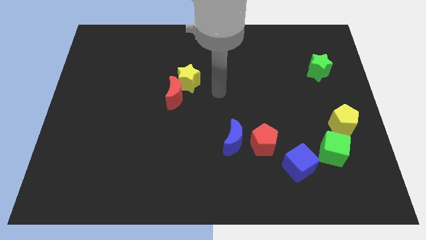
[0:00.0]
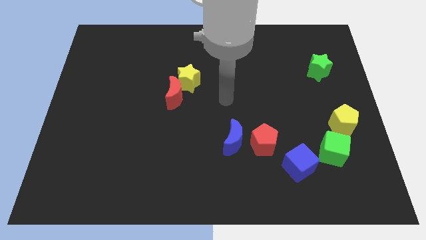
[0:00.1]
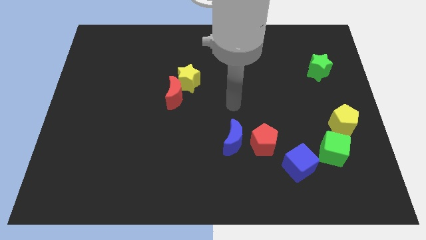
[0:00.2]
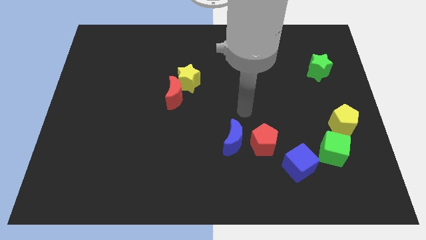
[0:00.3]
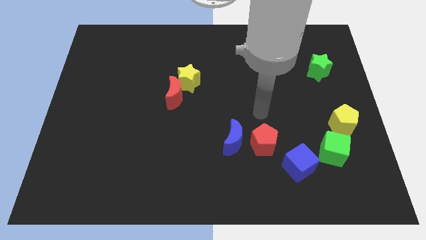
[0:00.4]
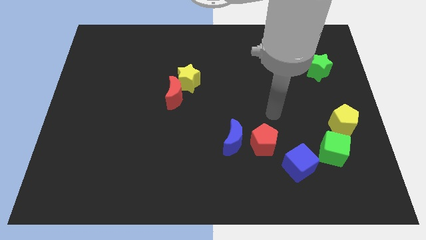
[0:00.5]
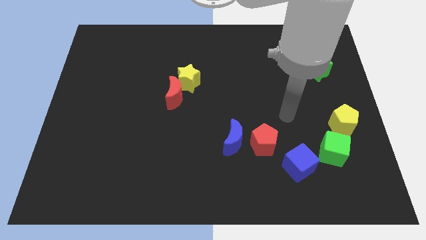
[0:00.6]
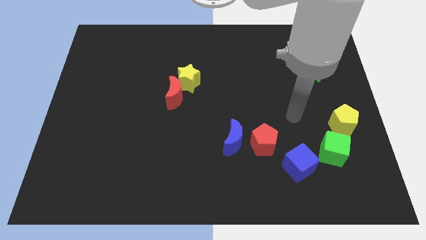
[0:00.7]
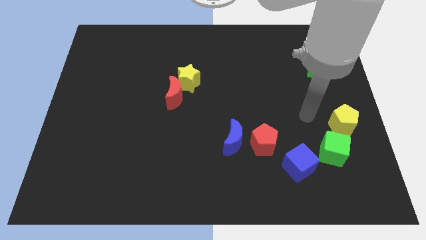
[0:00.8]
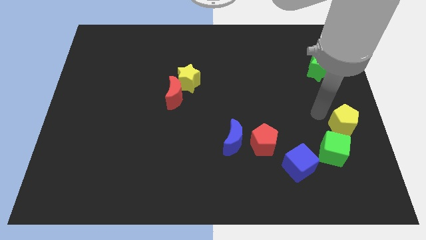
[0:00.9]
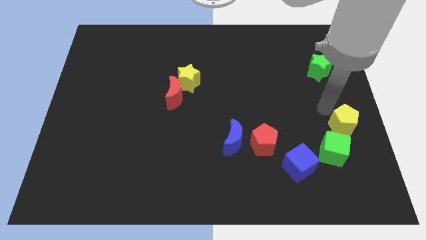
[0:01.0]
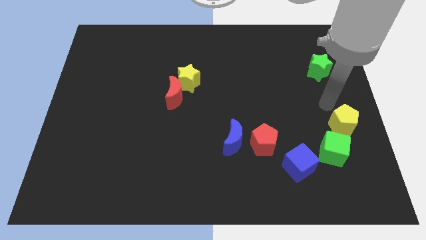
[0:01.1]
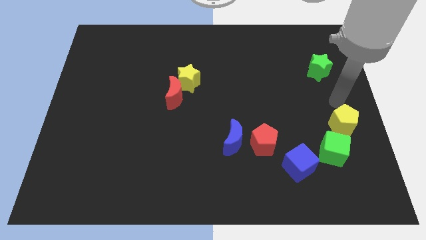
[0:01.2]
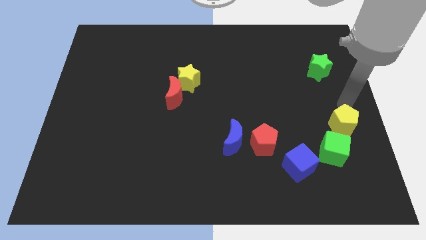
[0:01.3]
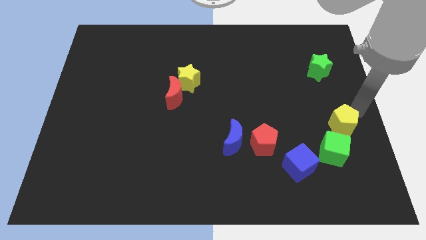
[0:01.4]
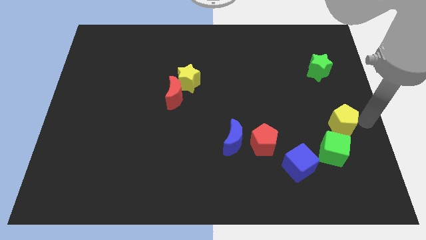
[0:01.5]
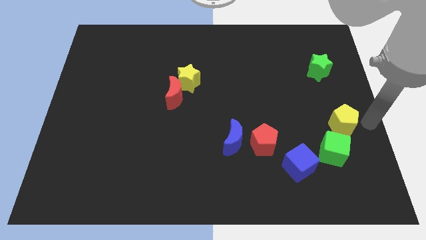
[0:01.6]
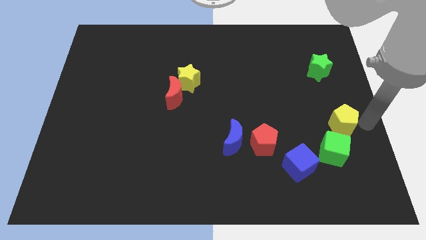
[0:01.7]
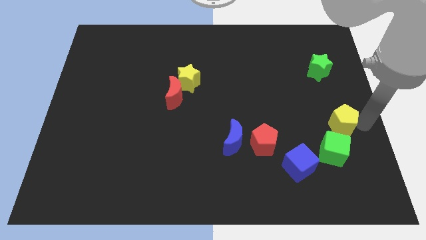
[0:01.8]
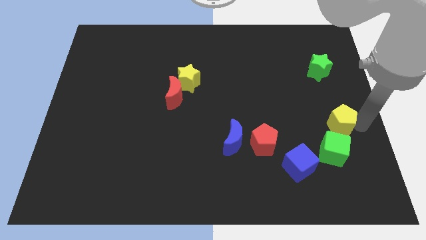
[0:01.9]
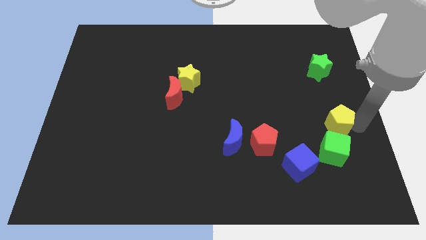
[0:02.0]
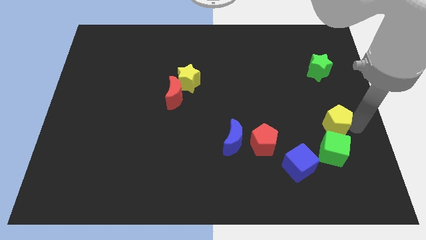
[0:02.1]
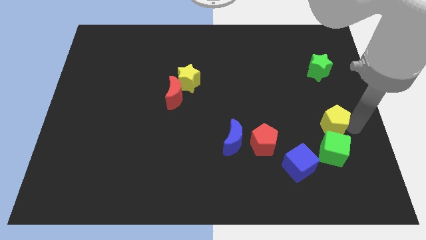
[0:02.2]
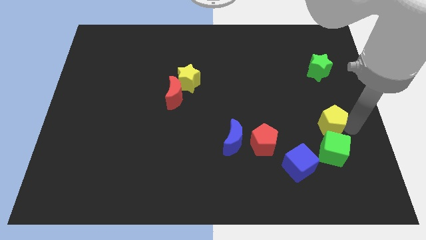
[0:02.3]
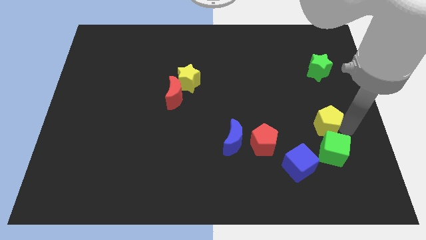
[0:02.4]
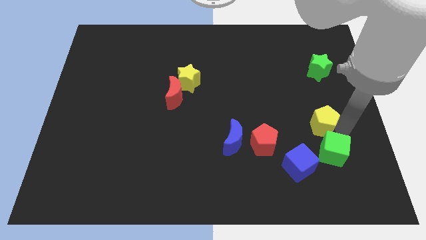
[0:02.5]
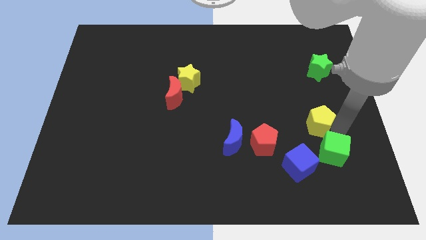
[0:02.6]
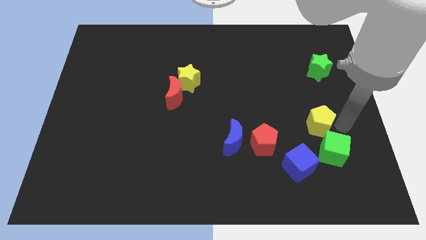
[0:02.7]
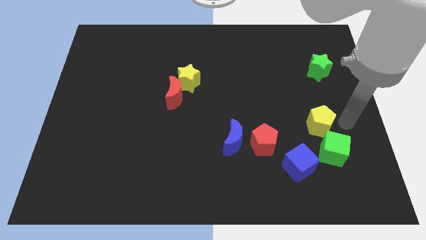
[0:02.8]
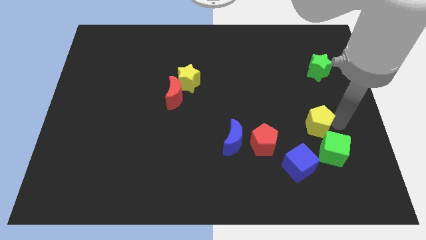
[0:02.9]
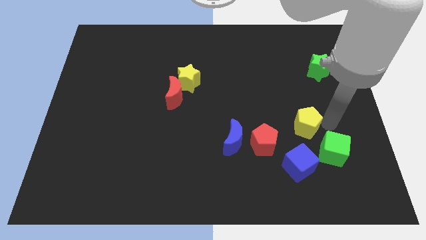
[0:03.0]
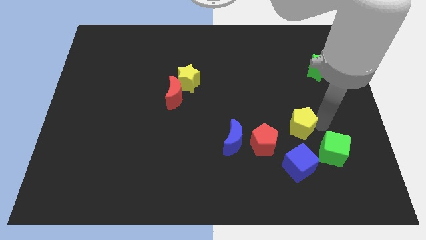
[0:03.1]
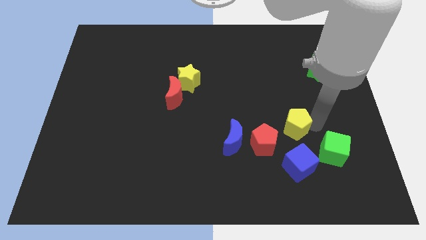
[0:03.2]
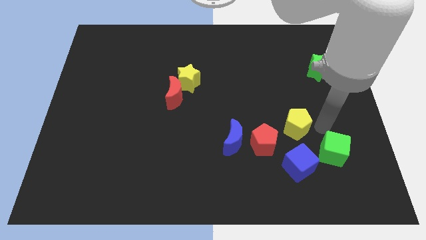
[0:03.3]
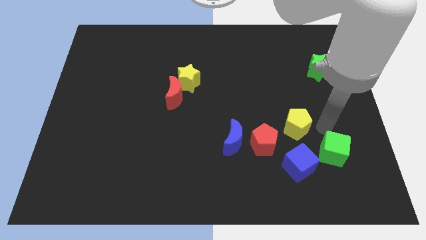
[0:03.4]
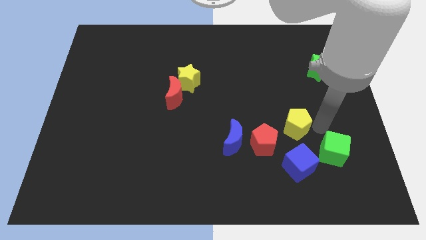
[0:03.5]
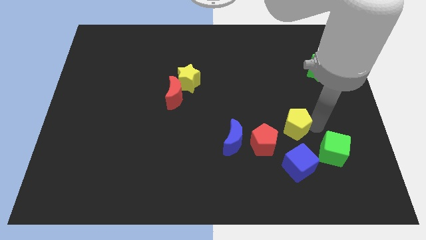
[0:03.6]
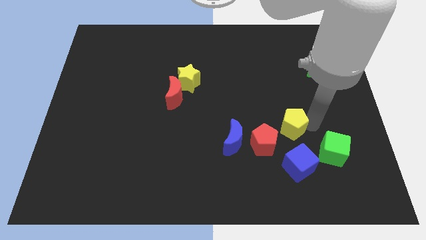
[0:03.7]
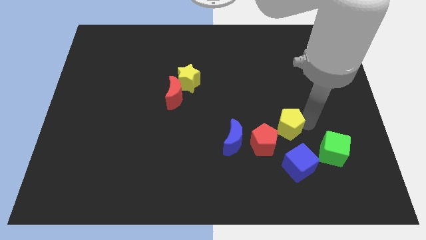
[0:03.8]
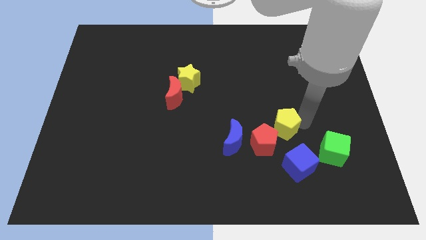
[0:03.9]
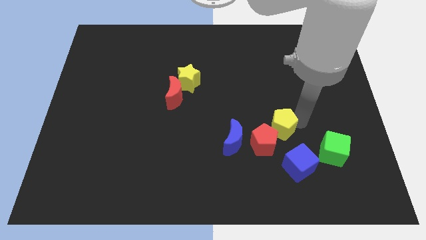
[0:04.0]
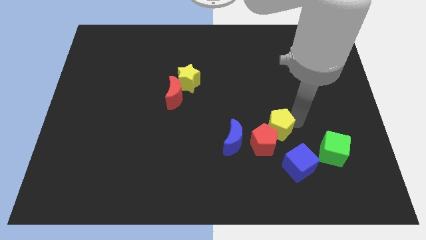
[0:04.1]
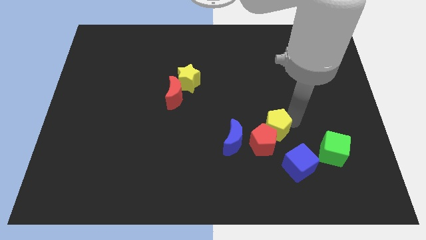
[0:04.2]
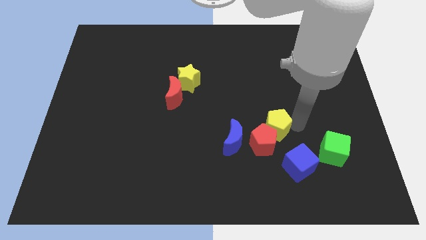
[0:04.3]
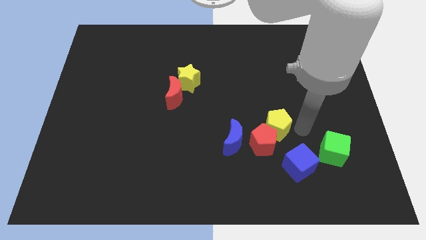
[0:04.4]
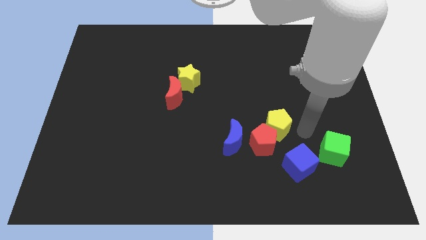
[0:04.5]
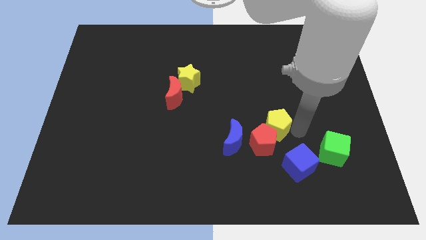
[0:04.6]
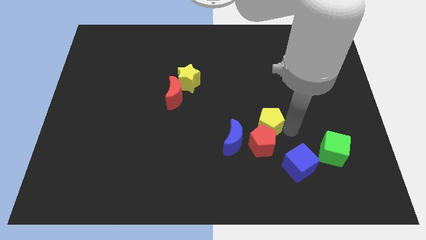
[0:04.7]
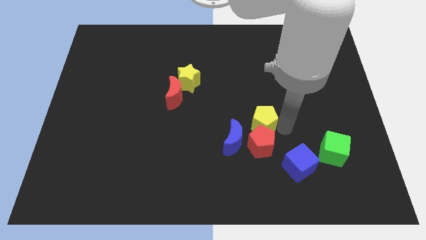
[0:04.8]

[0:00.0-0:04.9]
push the yellow pentagon to the top left of the red pentagon

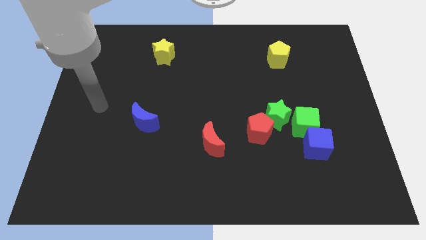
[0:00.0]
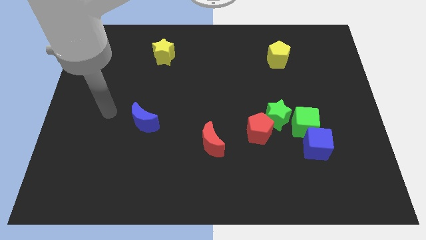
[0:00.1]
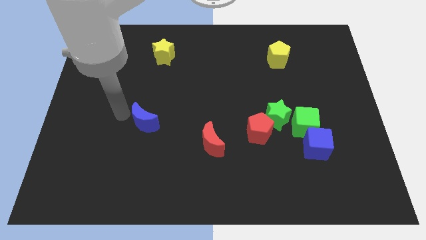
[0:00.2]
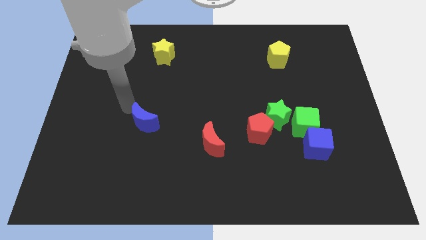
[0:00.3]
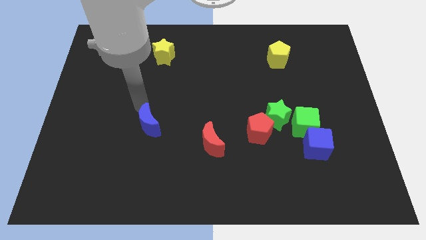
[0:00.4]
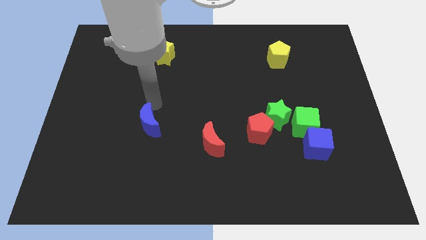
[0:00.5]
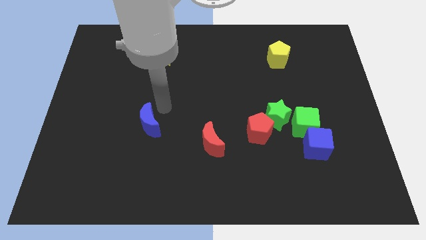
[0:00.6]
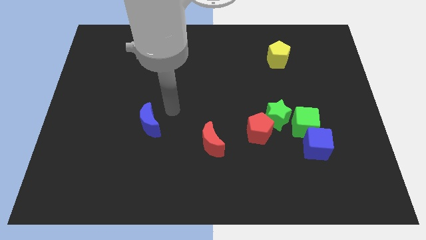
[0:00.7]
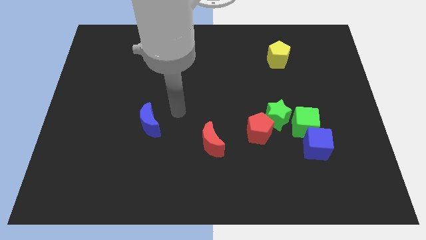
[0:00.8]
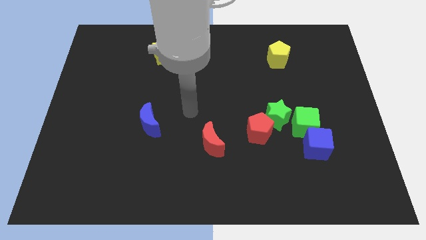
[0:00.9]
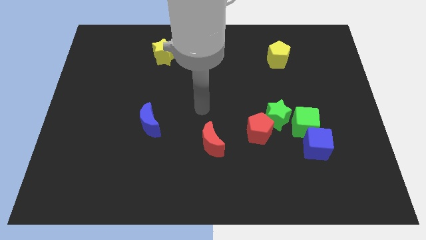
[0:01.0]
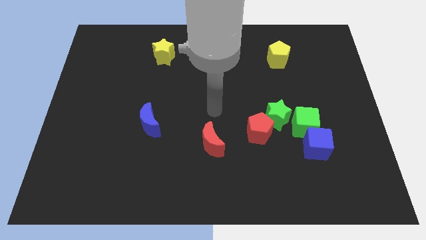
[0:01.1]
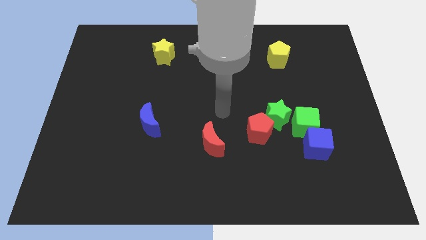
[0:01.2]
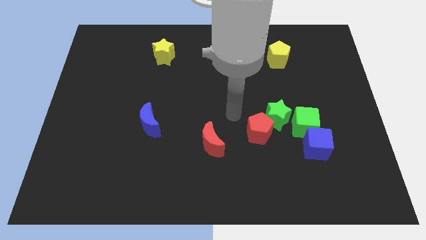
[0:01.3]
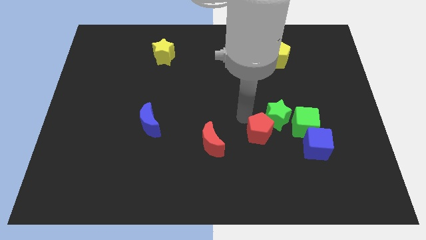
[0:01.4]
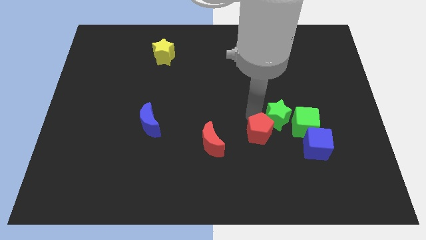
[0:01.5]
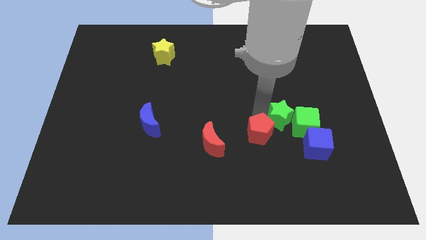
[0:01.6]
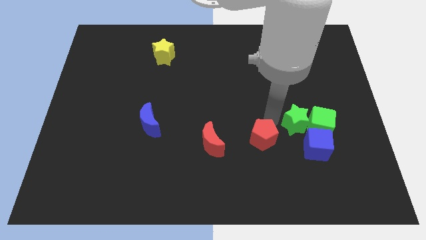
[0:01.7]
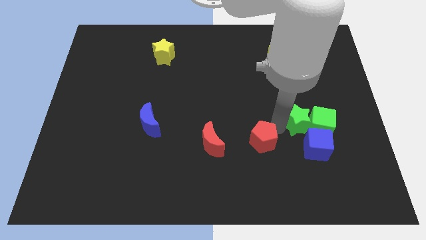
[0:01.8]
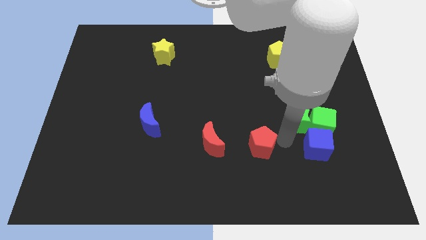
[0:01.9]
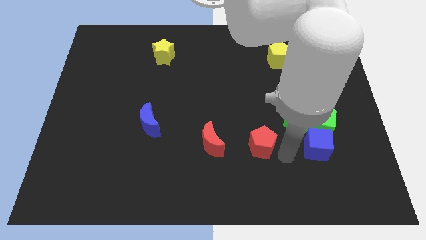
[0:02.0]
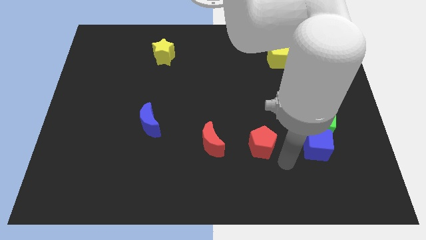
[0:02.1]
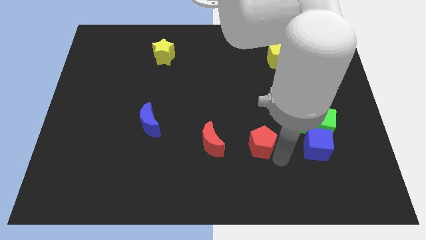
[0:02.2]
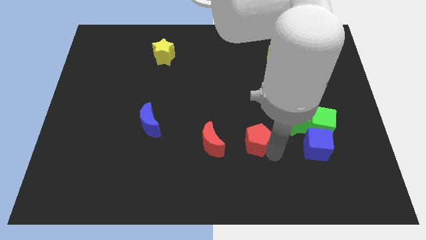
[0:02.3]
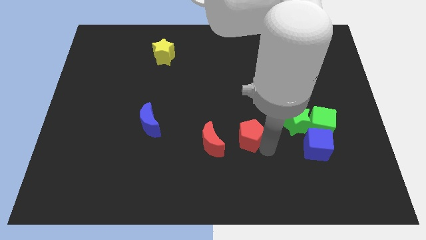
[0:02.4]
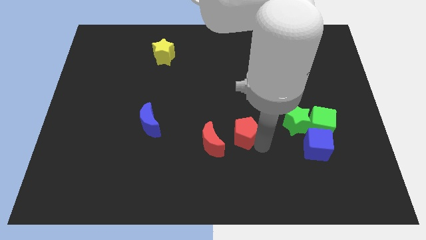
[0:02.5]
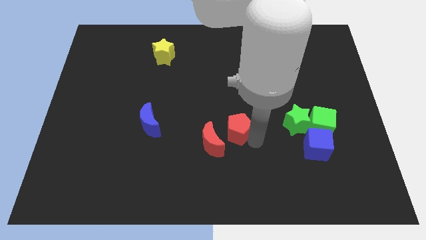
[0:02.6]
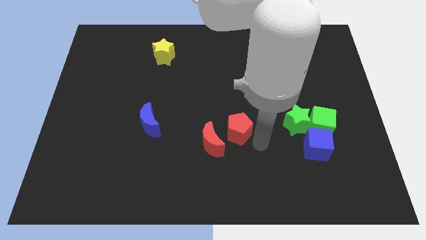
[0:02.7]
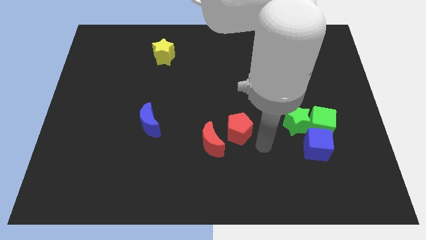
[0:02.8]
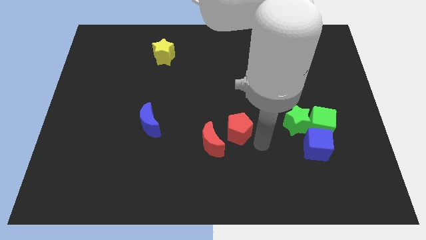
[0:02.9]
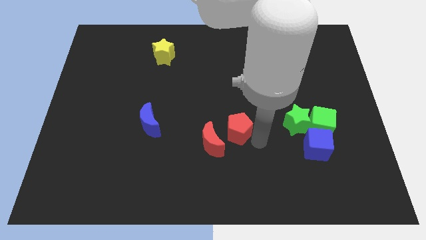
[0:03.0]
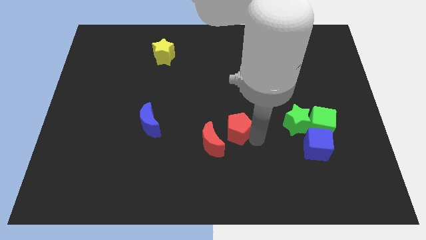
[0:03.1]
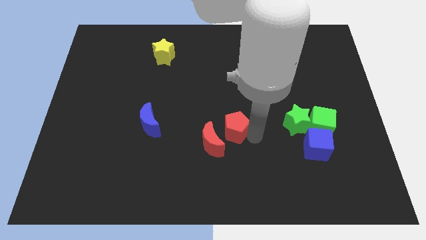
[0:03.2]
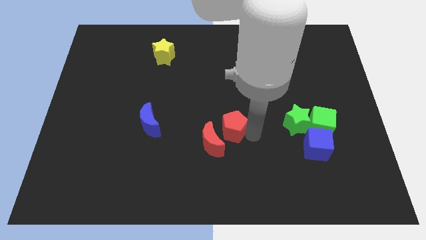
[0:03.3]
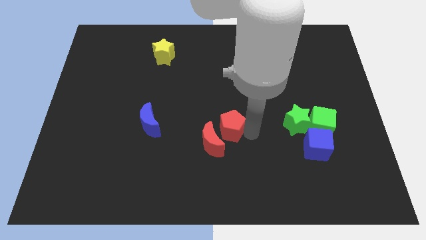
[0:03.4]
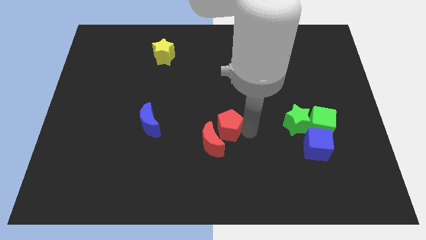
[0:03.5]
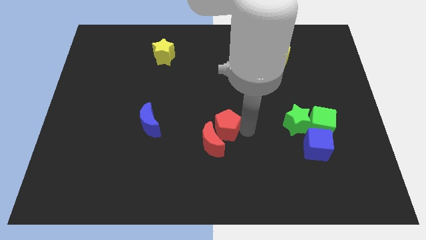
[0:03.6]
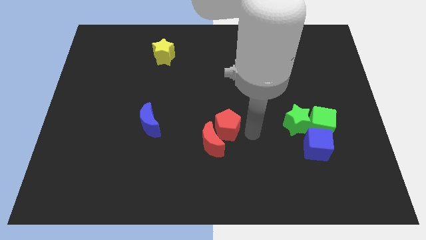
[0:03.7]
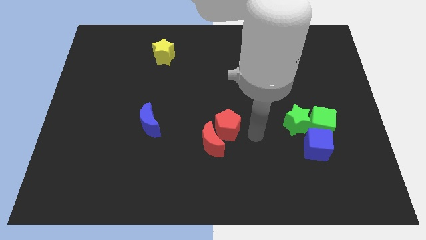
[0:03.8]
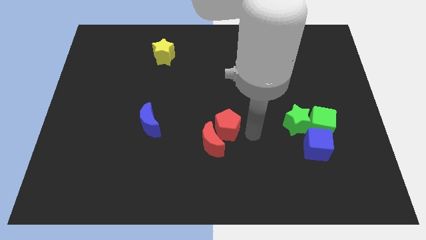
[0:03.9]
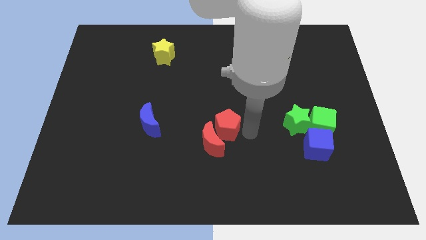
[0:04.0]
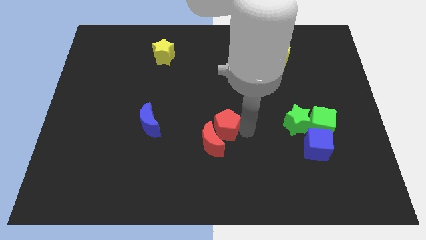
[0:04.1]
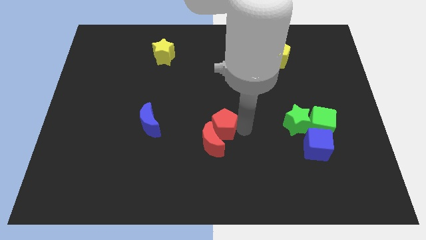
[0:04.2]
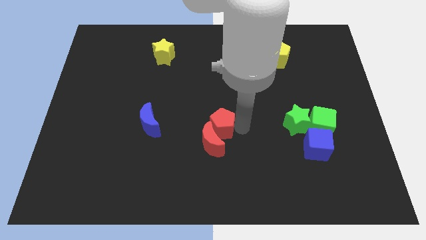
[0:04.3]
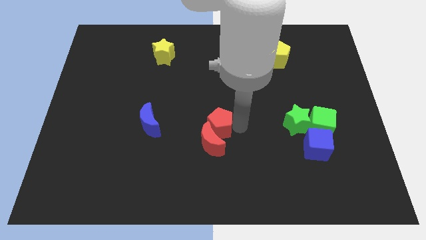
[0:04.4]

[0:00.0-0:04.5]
slide the red pentagon just right of the blue moon
